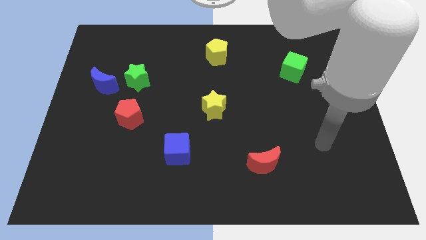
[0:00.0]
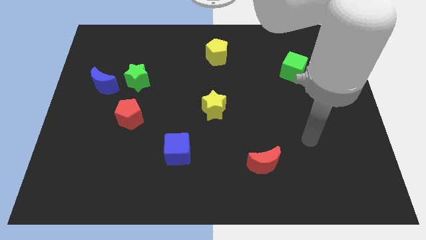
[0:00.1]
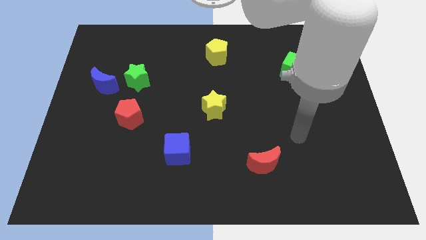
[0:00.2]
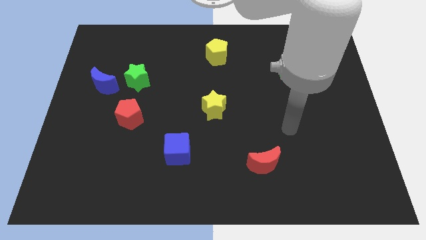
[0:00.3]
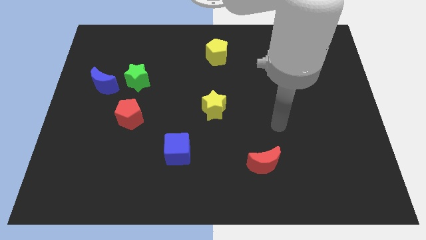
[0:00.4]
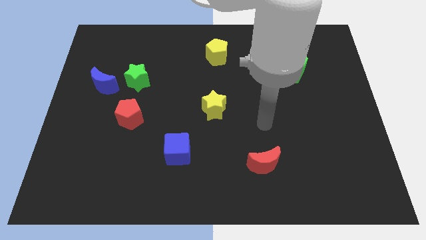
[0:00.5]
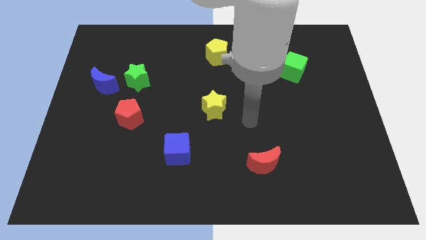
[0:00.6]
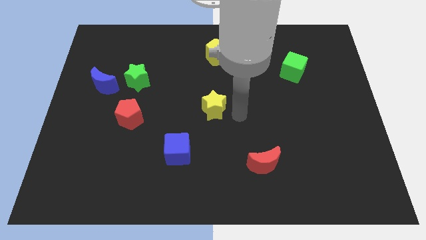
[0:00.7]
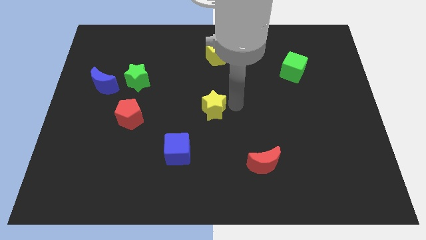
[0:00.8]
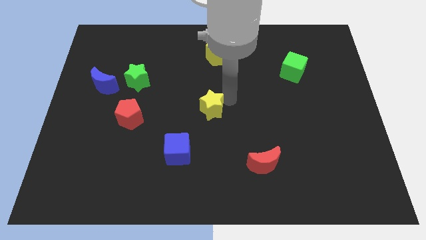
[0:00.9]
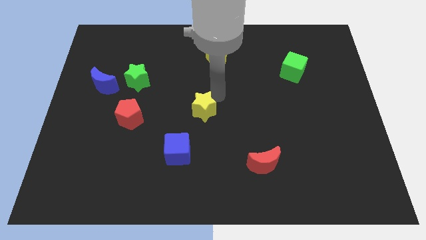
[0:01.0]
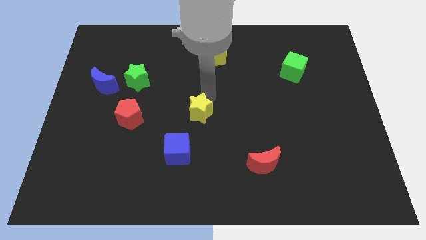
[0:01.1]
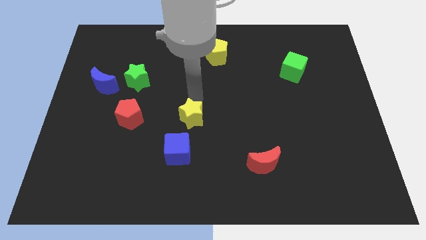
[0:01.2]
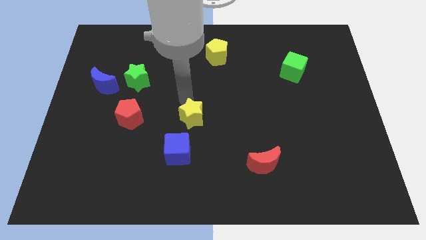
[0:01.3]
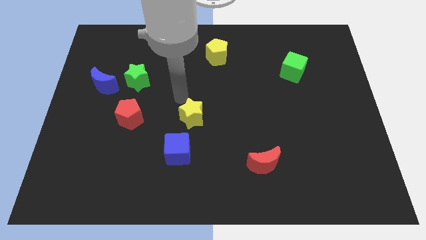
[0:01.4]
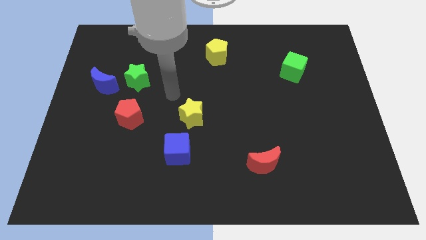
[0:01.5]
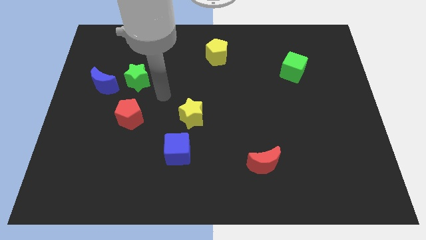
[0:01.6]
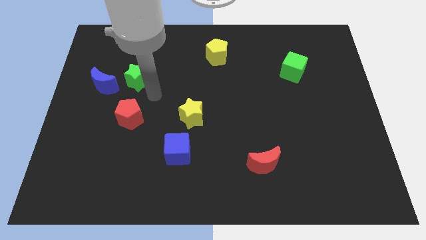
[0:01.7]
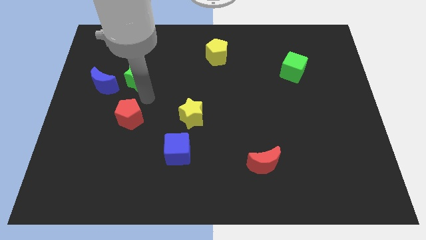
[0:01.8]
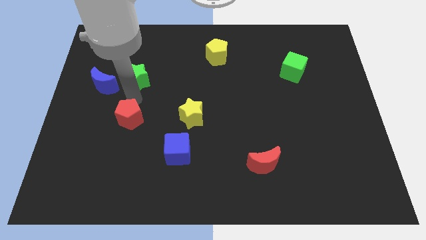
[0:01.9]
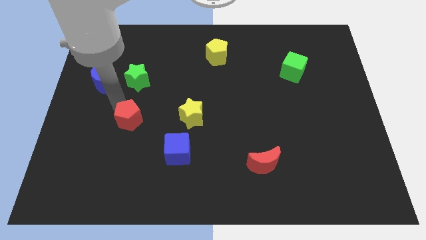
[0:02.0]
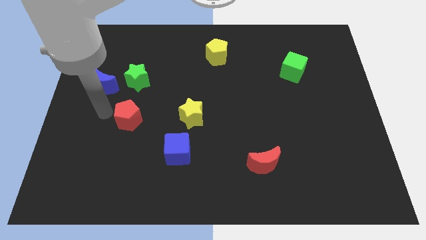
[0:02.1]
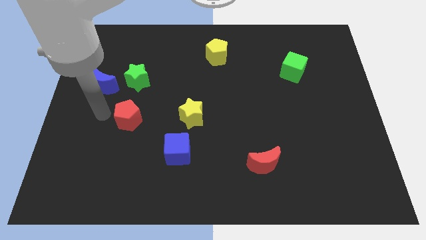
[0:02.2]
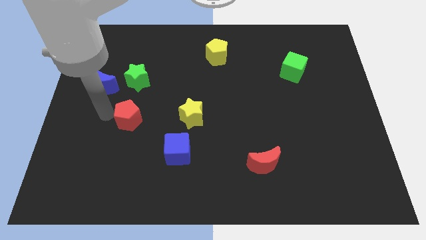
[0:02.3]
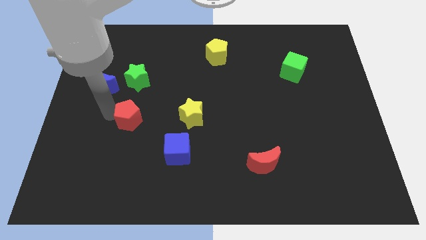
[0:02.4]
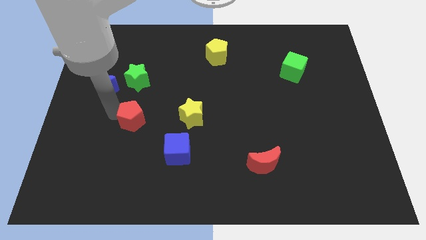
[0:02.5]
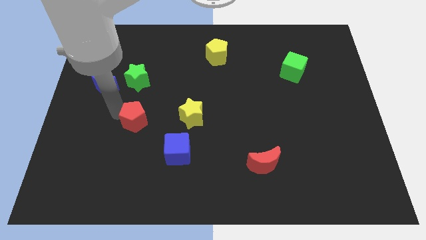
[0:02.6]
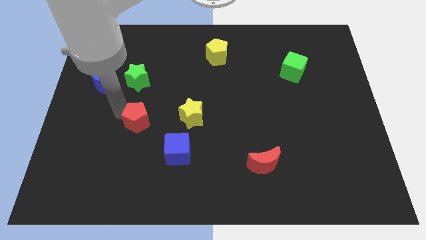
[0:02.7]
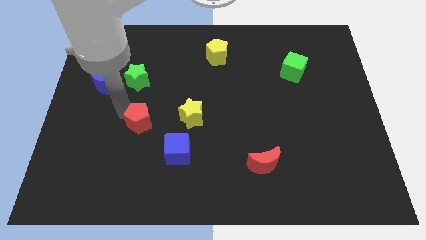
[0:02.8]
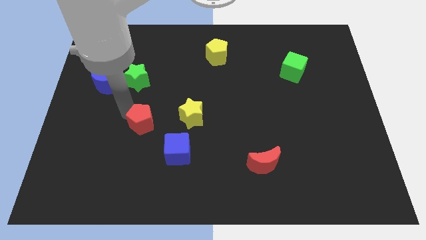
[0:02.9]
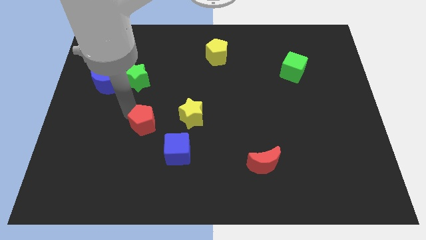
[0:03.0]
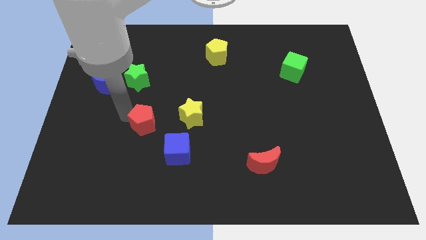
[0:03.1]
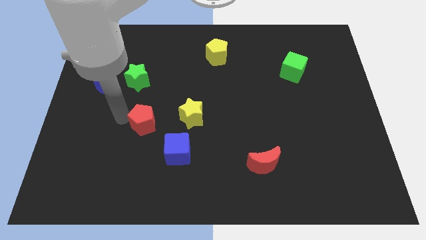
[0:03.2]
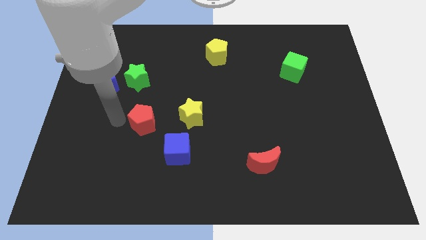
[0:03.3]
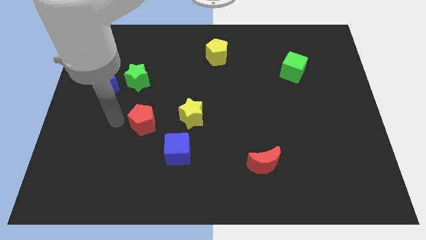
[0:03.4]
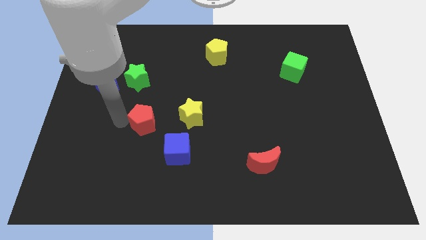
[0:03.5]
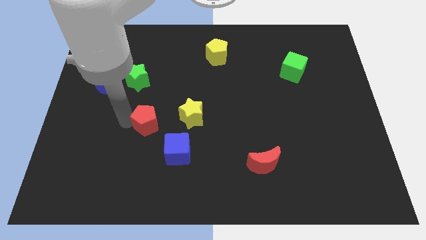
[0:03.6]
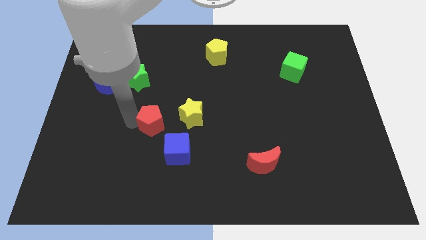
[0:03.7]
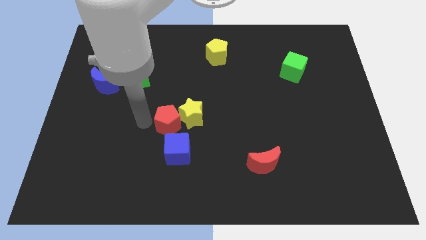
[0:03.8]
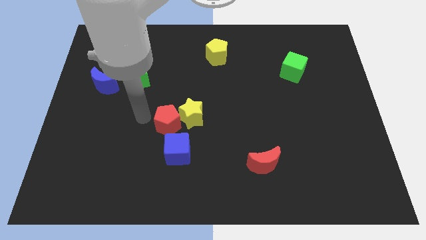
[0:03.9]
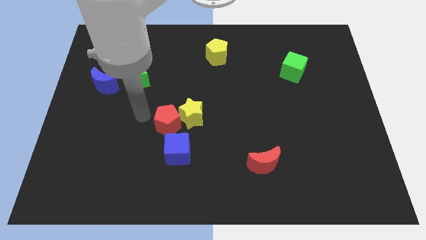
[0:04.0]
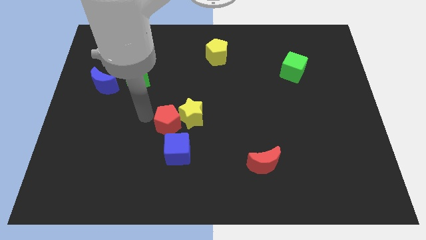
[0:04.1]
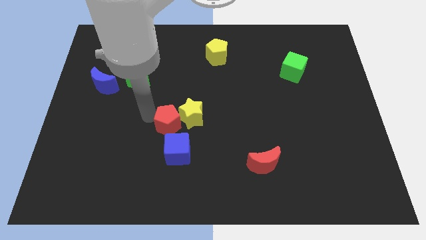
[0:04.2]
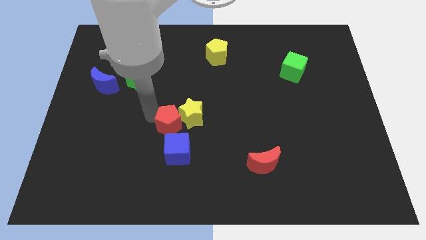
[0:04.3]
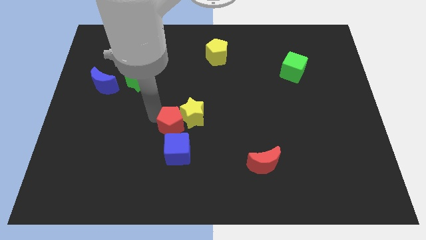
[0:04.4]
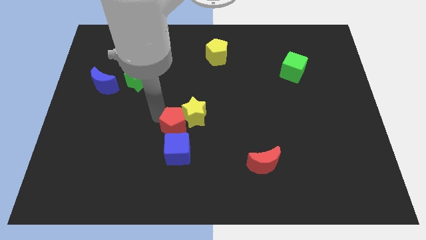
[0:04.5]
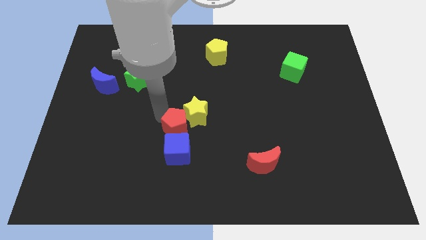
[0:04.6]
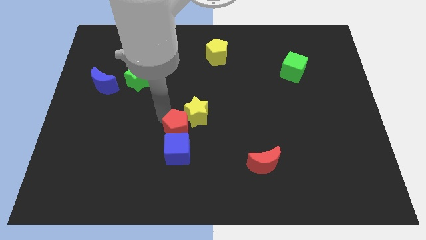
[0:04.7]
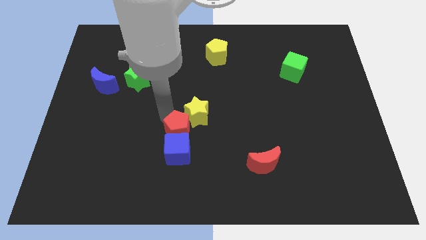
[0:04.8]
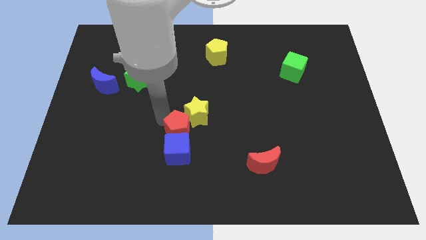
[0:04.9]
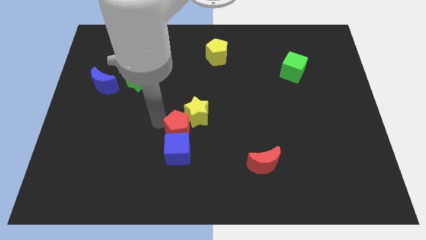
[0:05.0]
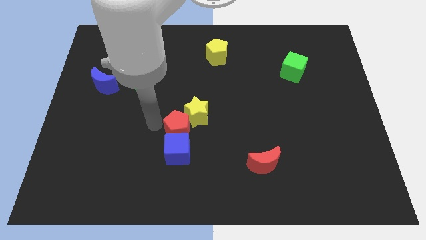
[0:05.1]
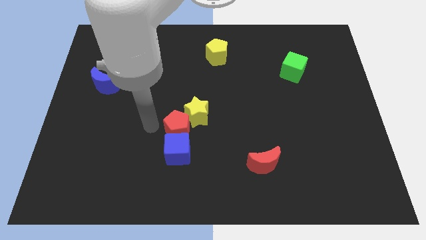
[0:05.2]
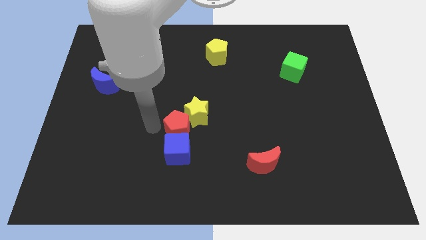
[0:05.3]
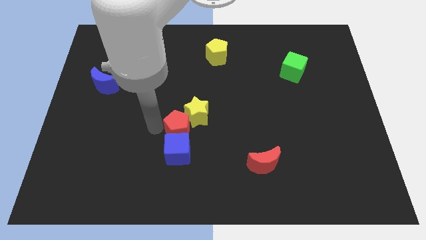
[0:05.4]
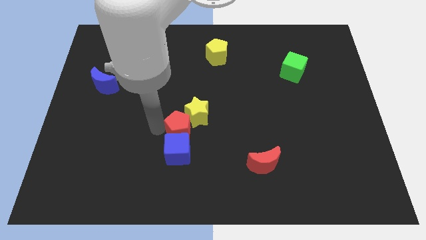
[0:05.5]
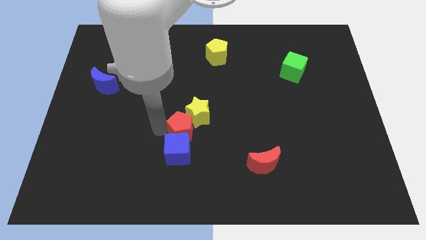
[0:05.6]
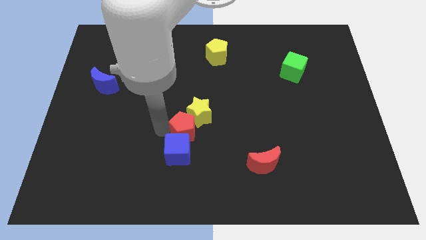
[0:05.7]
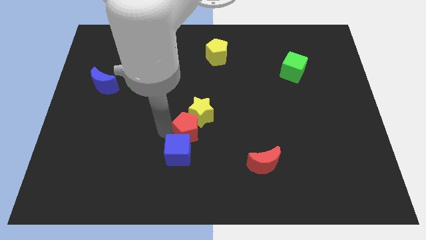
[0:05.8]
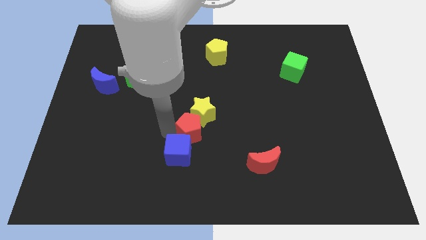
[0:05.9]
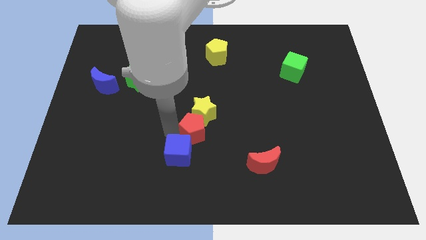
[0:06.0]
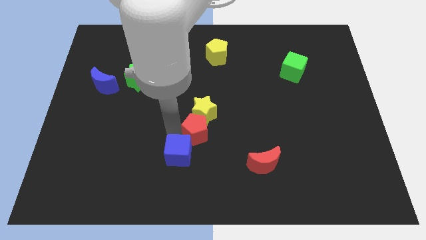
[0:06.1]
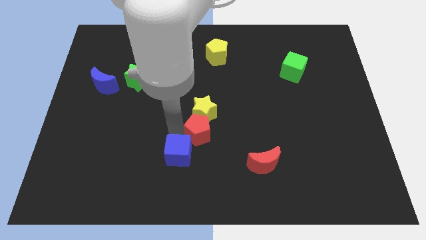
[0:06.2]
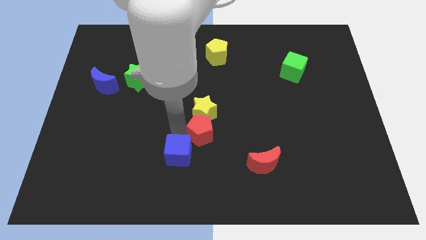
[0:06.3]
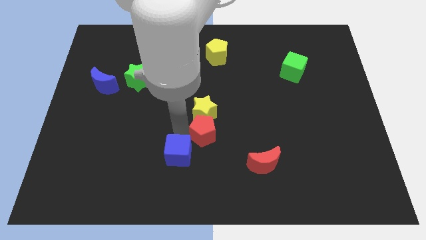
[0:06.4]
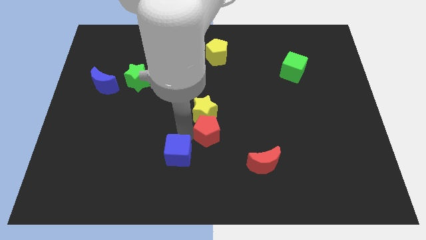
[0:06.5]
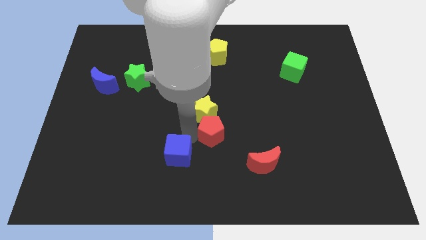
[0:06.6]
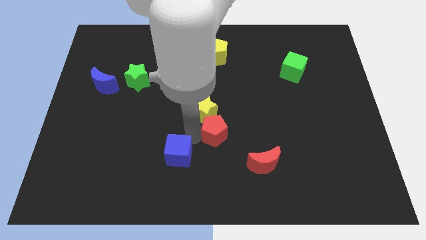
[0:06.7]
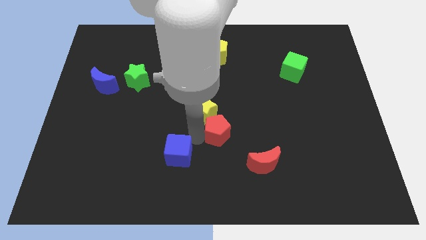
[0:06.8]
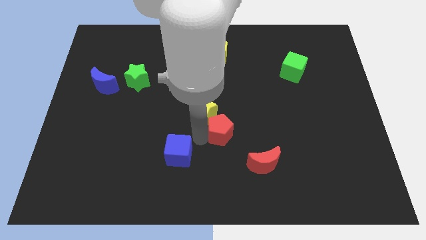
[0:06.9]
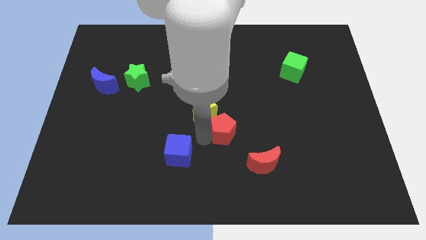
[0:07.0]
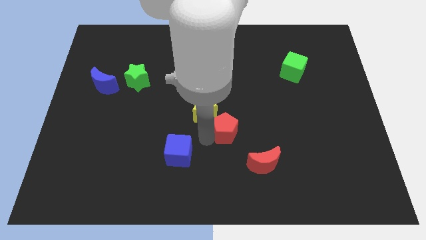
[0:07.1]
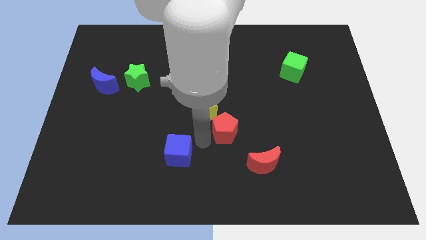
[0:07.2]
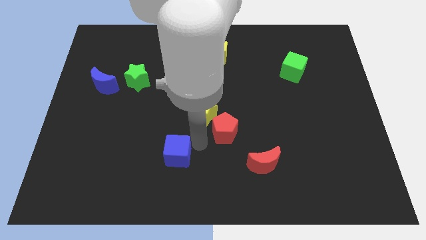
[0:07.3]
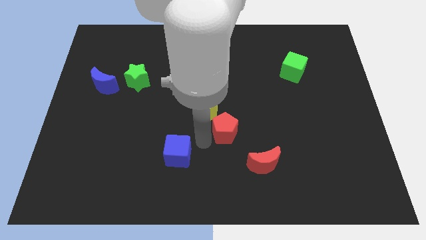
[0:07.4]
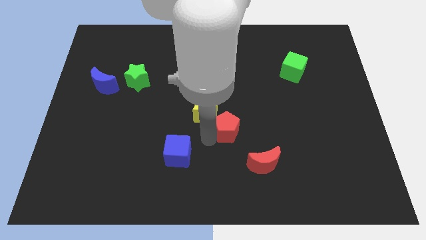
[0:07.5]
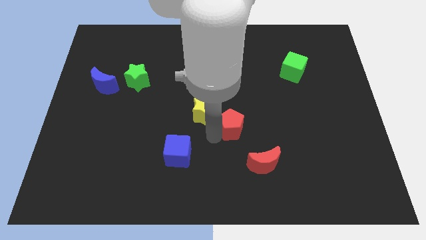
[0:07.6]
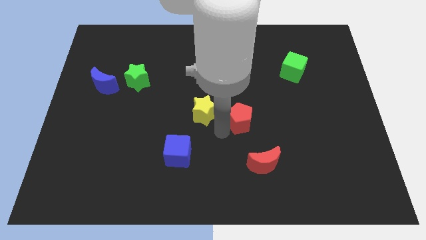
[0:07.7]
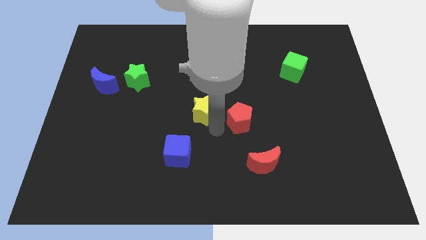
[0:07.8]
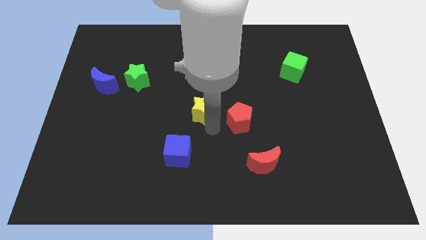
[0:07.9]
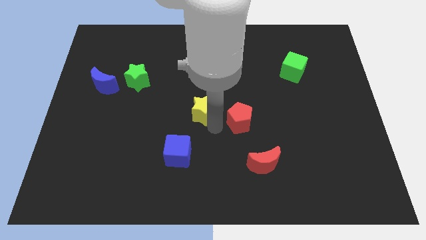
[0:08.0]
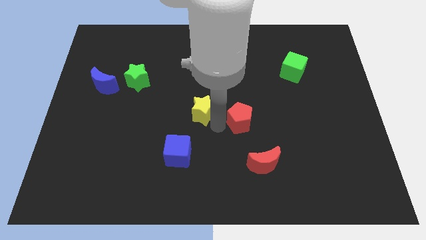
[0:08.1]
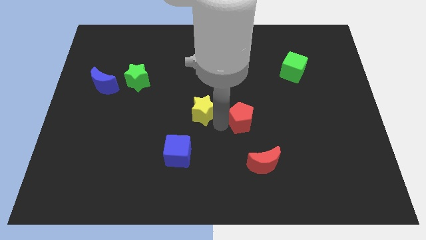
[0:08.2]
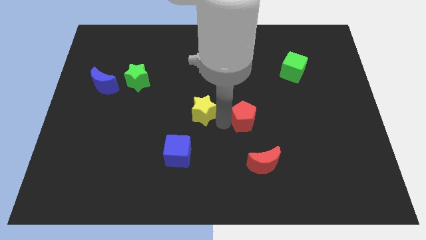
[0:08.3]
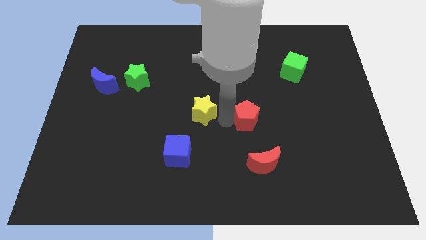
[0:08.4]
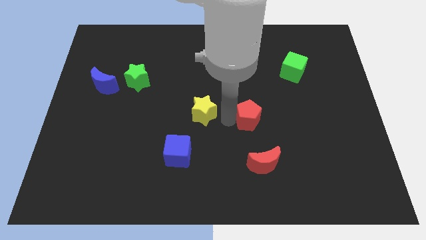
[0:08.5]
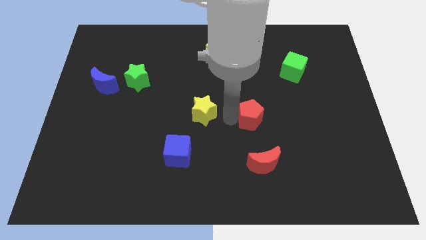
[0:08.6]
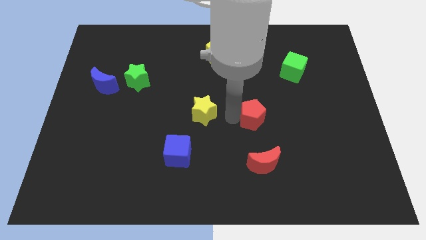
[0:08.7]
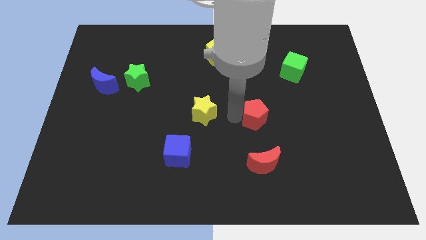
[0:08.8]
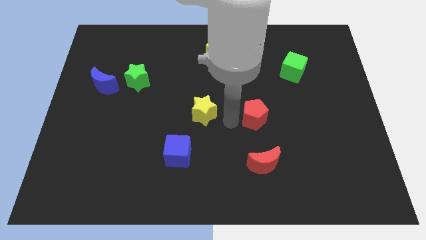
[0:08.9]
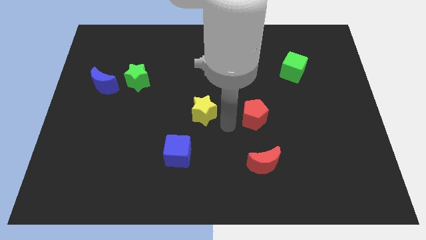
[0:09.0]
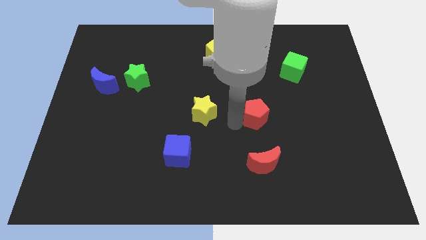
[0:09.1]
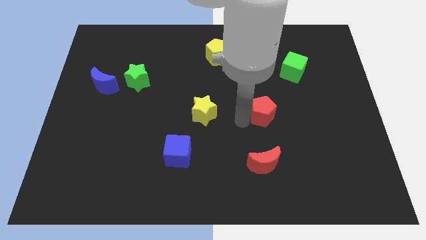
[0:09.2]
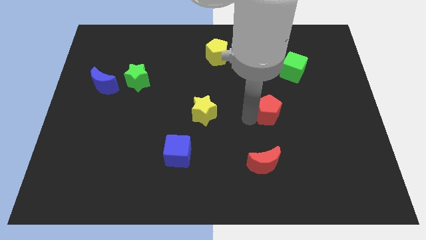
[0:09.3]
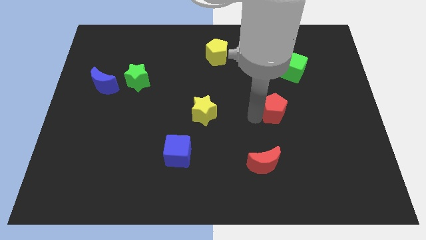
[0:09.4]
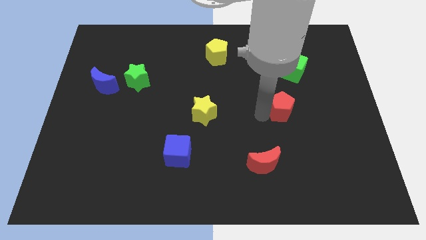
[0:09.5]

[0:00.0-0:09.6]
push the red pentagon to the bottom side of the green cube
